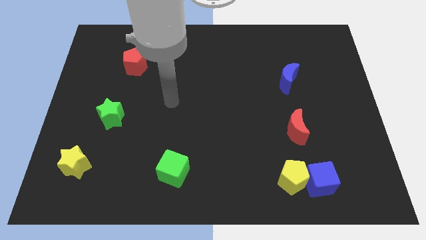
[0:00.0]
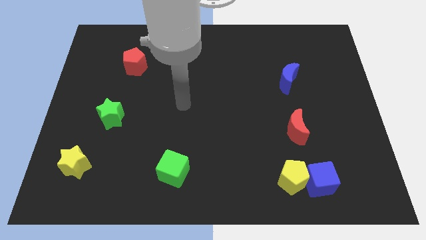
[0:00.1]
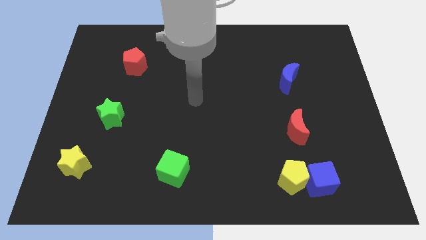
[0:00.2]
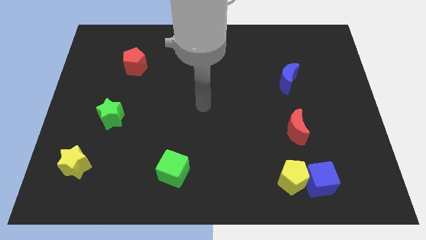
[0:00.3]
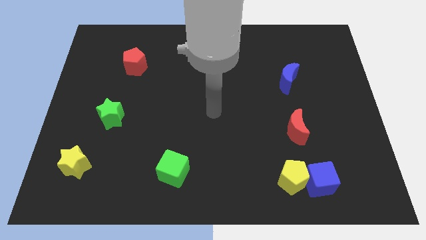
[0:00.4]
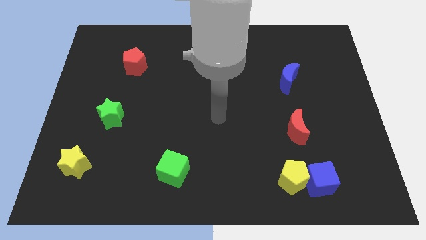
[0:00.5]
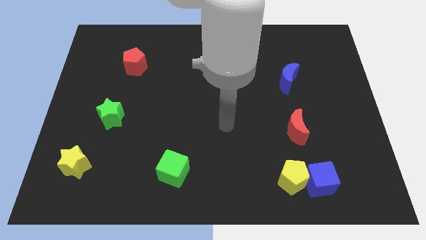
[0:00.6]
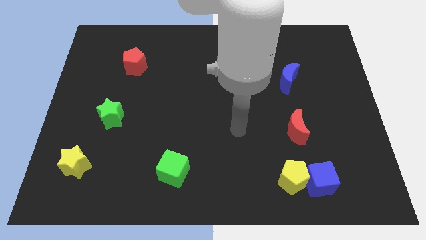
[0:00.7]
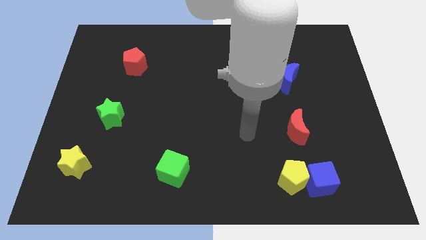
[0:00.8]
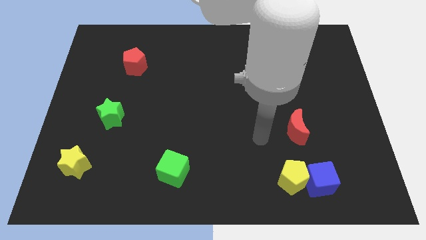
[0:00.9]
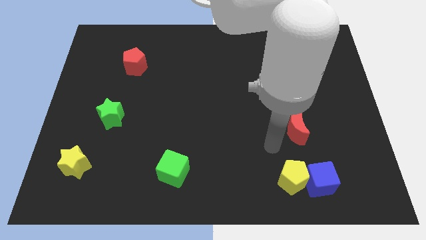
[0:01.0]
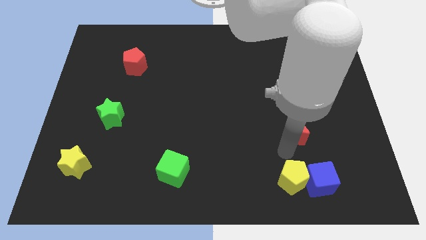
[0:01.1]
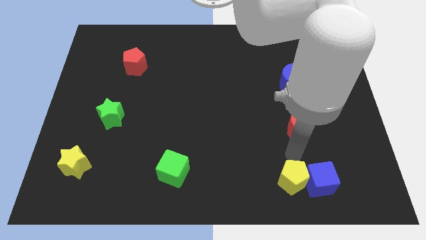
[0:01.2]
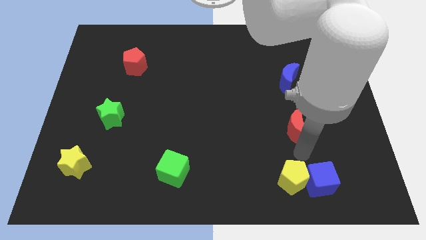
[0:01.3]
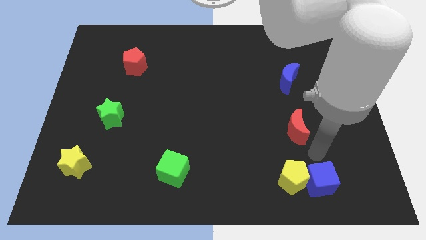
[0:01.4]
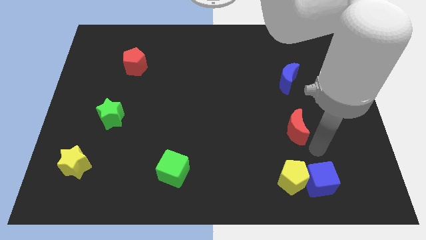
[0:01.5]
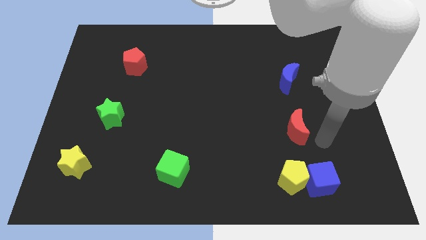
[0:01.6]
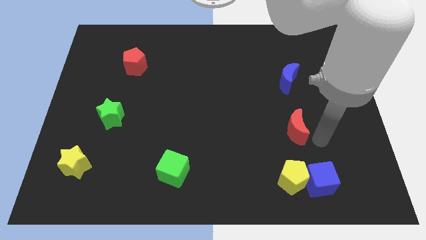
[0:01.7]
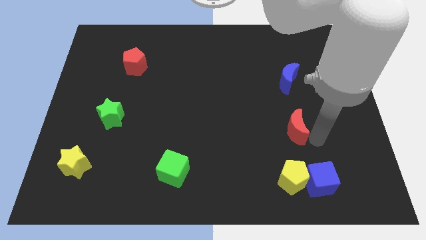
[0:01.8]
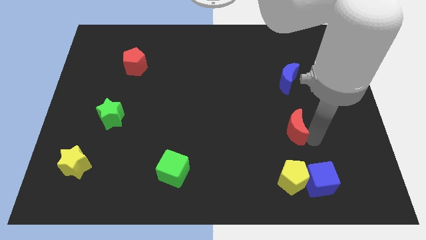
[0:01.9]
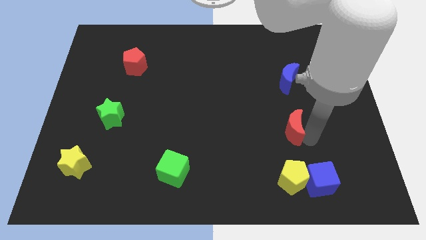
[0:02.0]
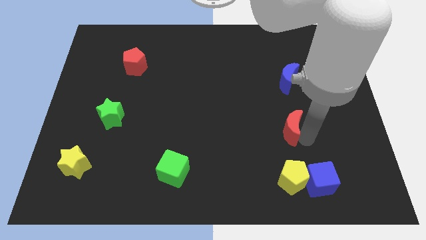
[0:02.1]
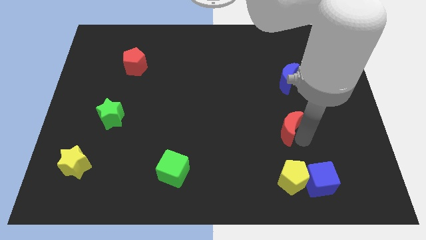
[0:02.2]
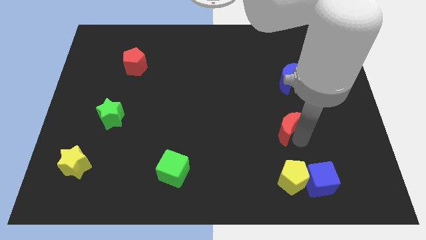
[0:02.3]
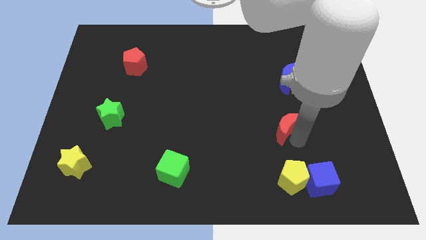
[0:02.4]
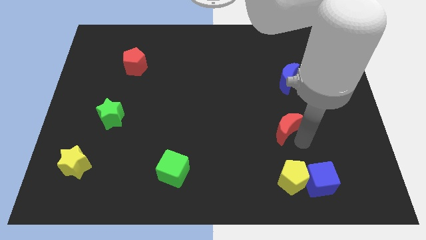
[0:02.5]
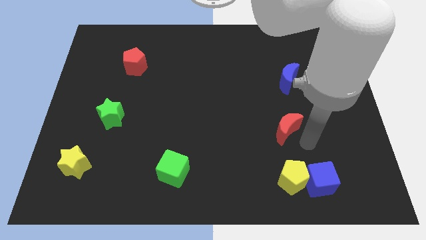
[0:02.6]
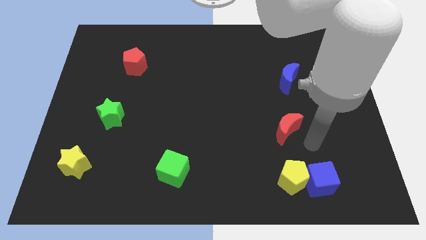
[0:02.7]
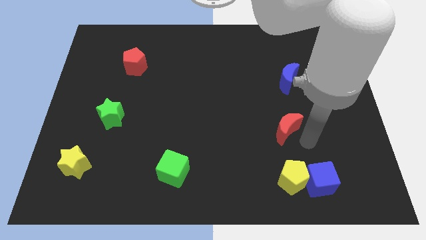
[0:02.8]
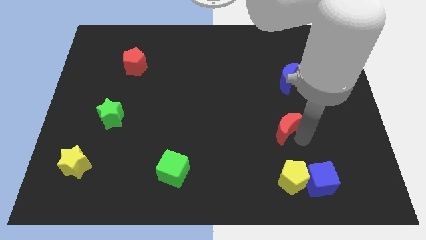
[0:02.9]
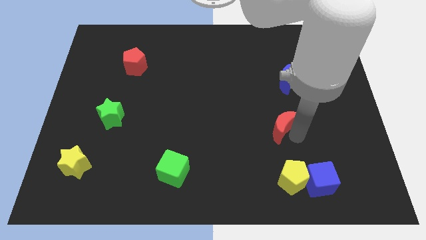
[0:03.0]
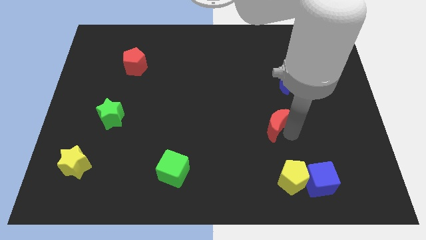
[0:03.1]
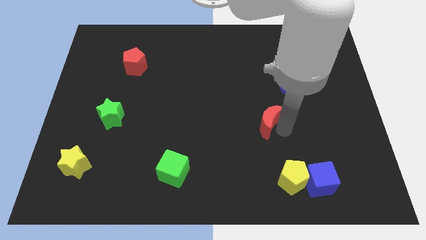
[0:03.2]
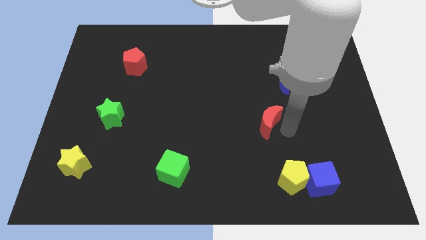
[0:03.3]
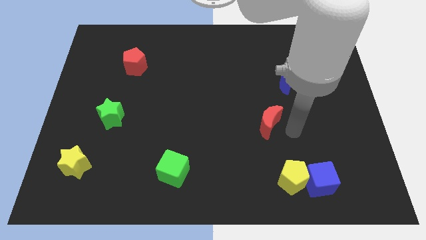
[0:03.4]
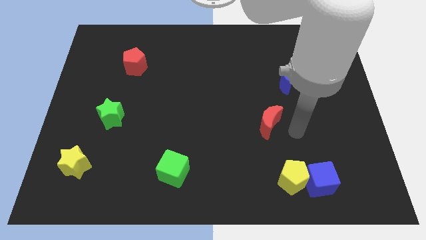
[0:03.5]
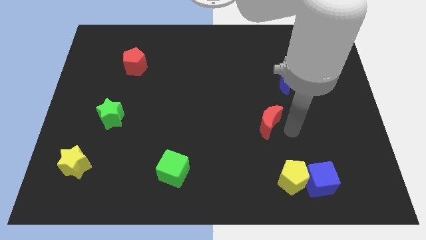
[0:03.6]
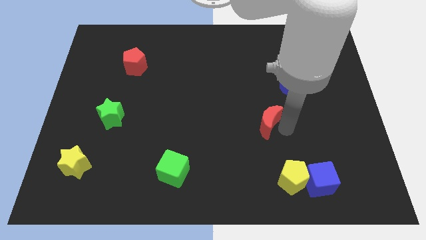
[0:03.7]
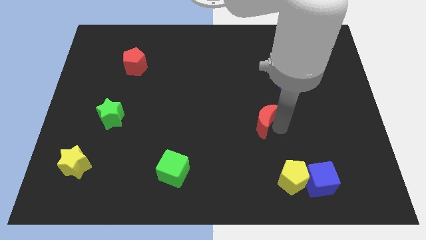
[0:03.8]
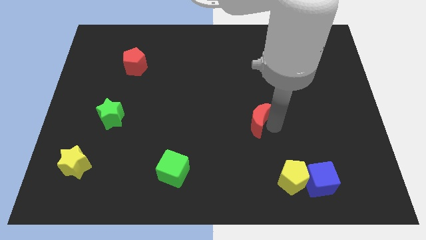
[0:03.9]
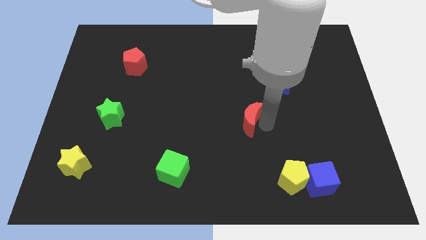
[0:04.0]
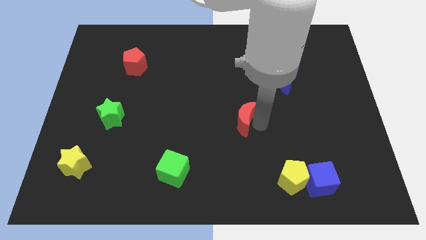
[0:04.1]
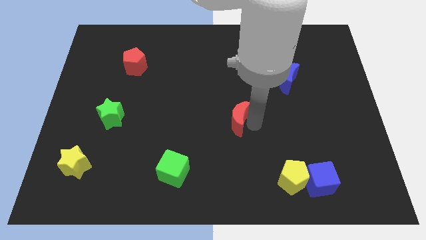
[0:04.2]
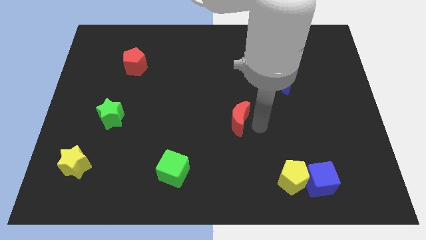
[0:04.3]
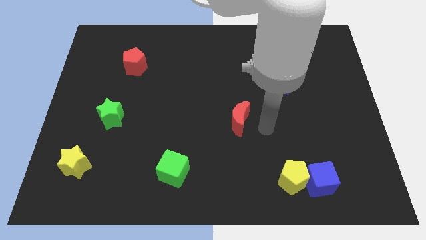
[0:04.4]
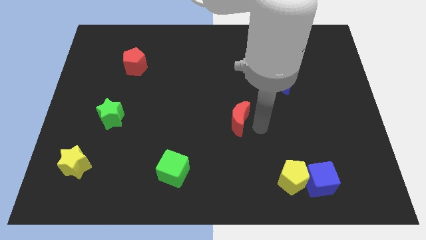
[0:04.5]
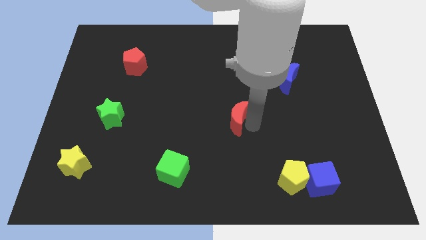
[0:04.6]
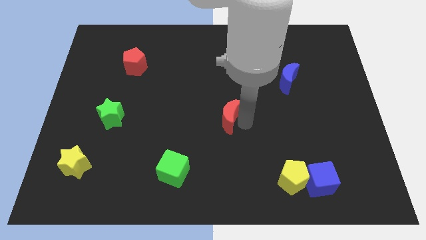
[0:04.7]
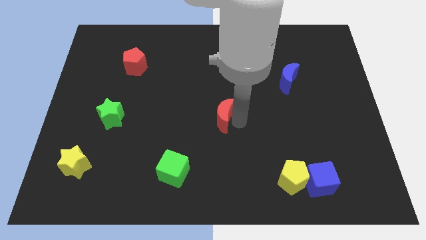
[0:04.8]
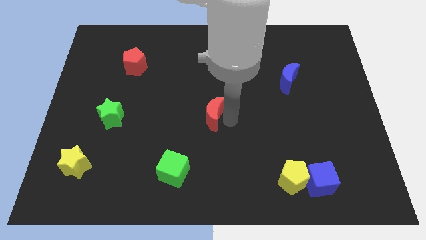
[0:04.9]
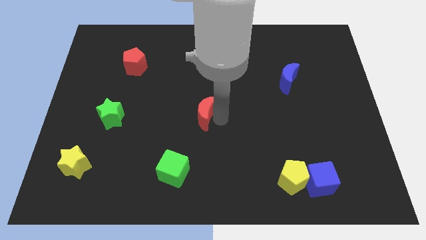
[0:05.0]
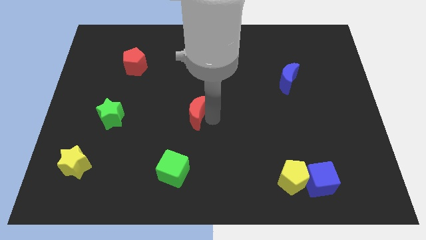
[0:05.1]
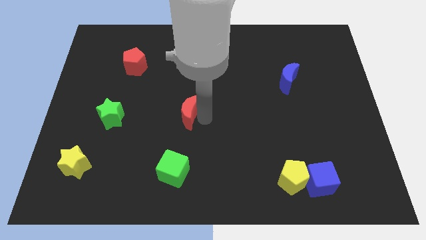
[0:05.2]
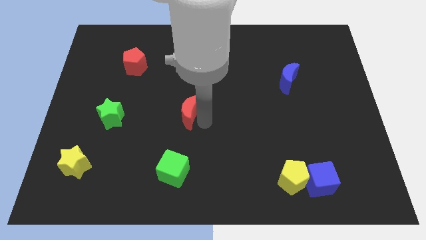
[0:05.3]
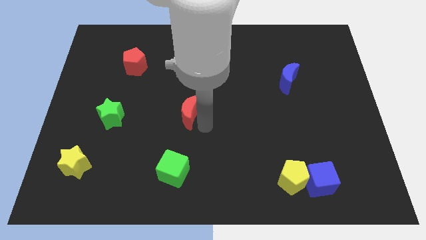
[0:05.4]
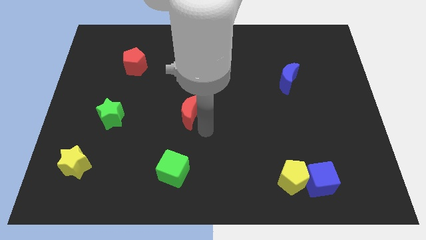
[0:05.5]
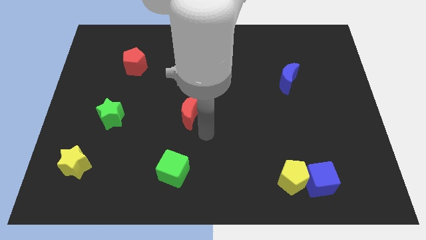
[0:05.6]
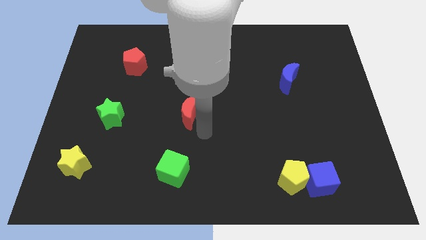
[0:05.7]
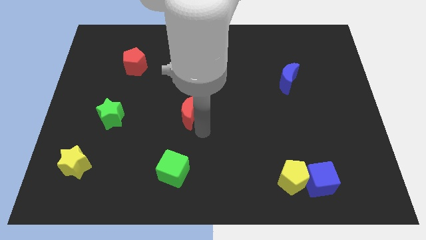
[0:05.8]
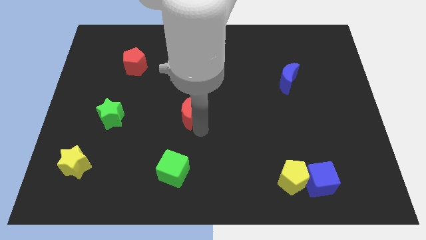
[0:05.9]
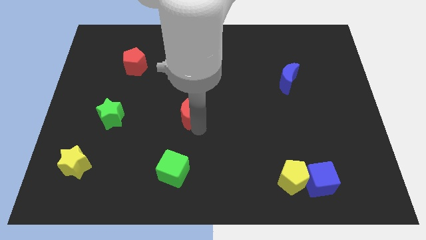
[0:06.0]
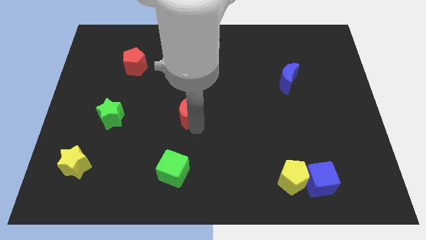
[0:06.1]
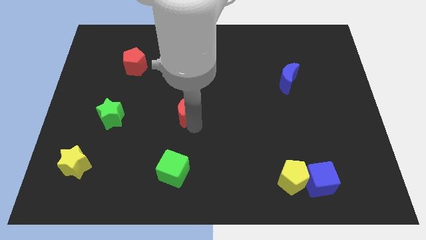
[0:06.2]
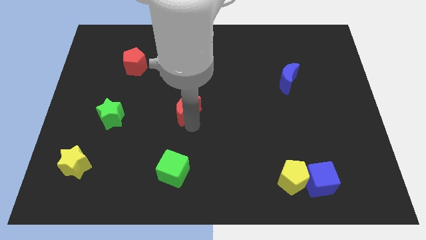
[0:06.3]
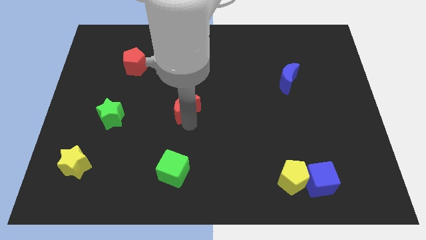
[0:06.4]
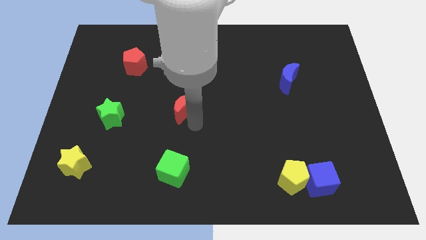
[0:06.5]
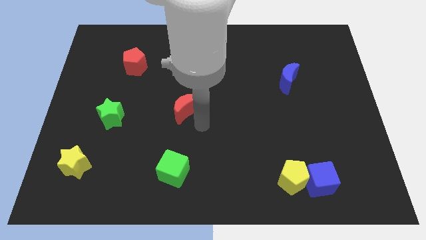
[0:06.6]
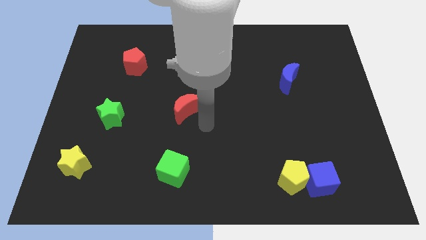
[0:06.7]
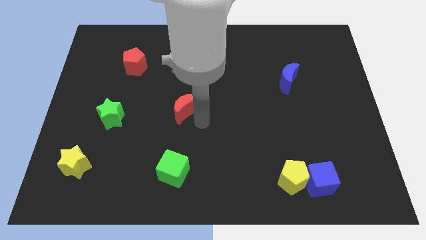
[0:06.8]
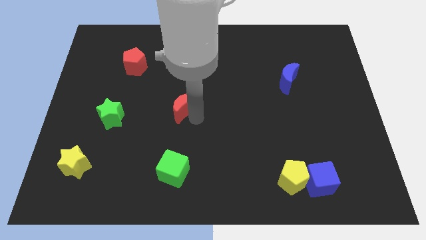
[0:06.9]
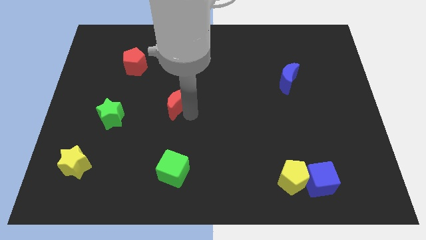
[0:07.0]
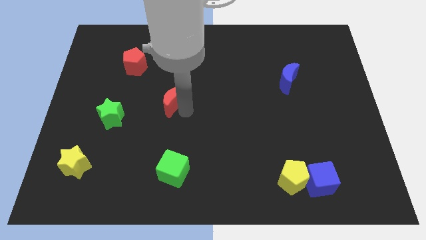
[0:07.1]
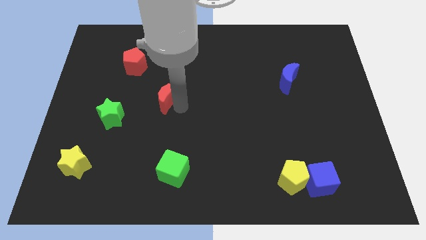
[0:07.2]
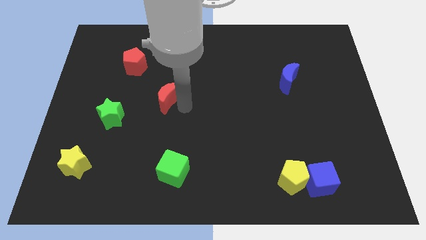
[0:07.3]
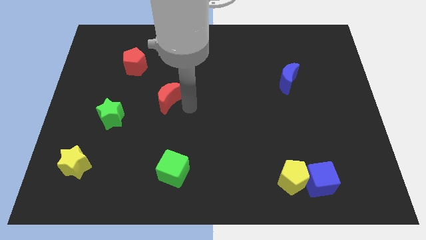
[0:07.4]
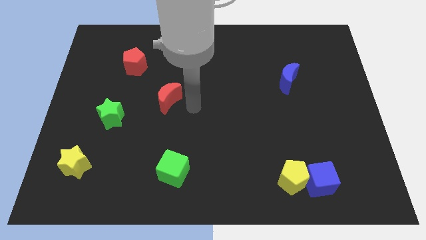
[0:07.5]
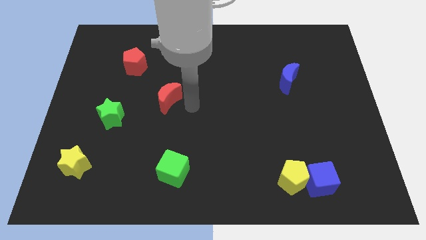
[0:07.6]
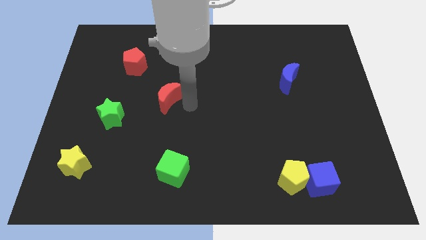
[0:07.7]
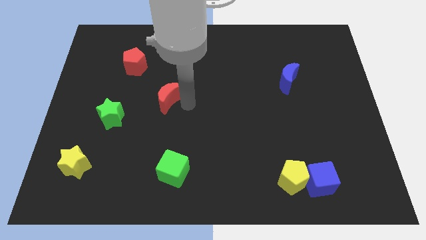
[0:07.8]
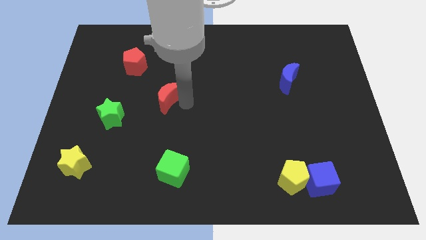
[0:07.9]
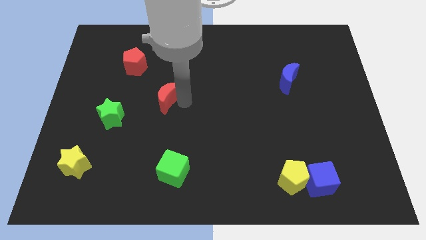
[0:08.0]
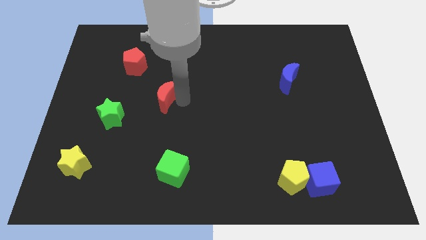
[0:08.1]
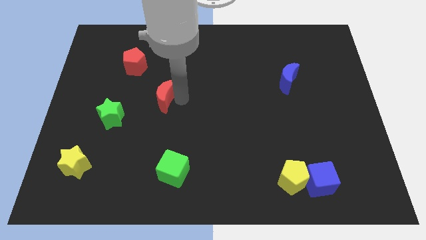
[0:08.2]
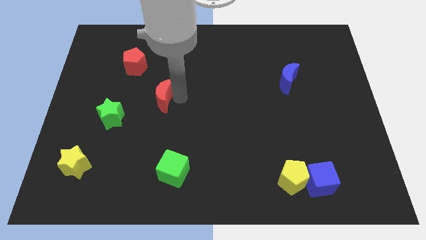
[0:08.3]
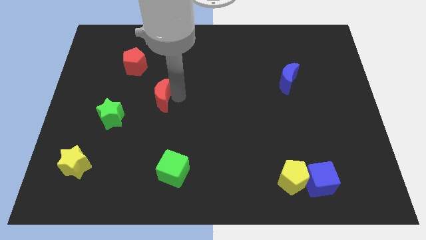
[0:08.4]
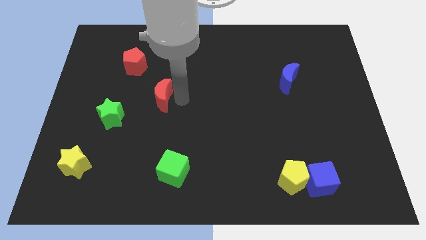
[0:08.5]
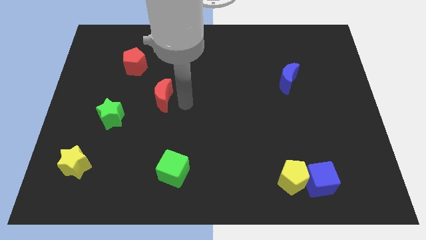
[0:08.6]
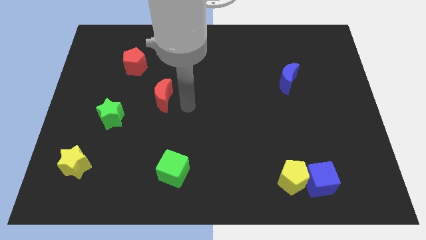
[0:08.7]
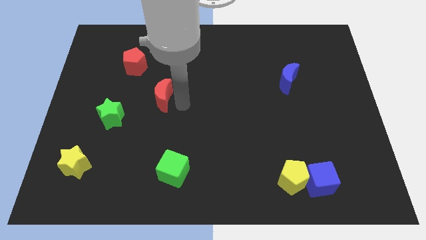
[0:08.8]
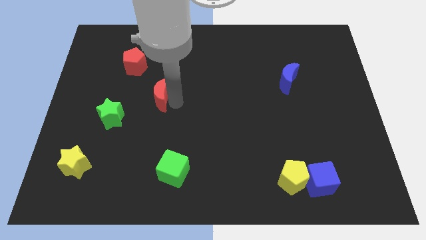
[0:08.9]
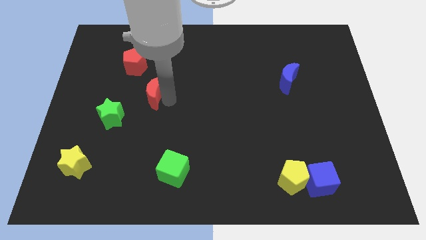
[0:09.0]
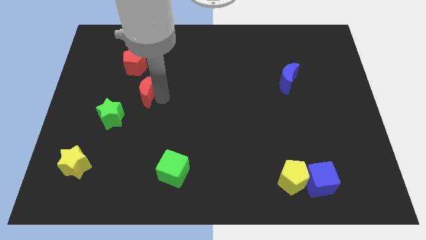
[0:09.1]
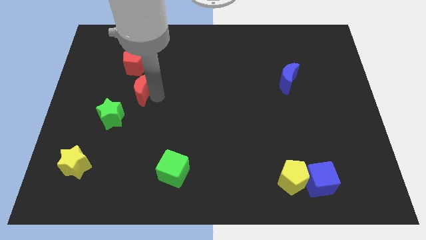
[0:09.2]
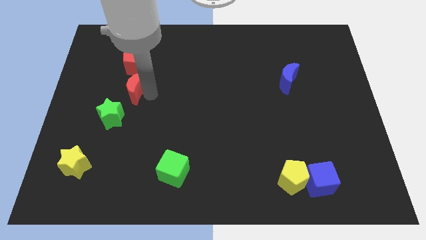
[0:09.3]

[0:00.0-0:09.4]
move the red moon to the top of the green star
